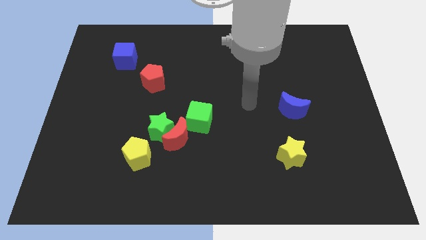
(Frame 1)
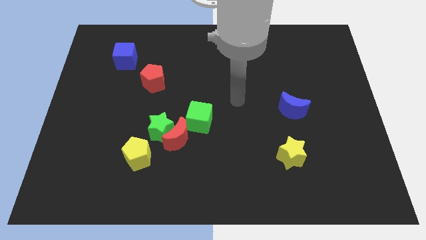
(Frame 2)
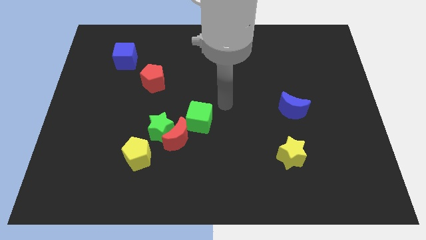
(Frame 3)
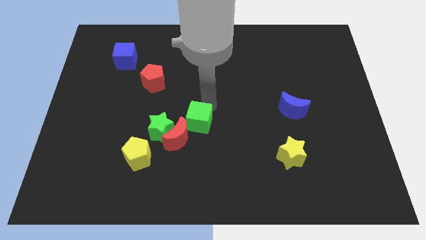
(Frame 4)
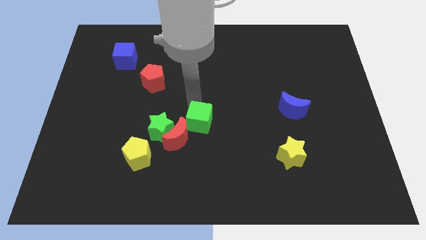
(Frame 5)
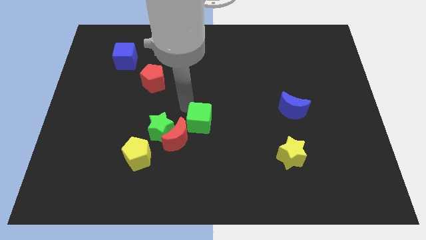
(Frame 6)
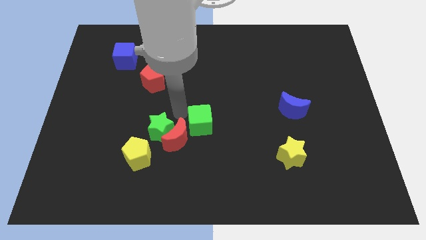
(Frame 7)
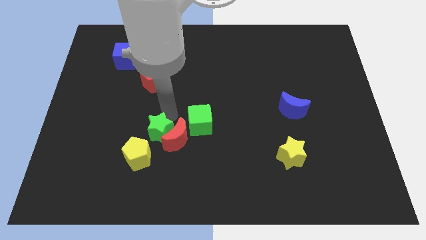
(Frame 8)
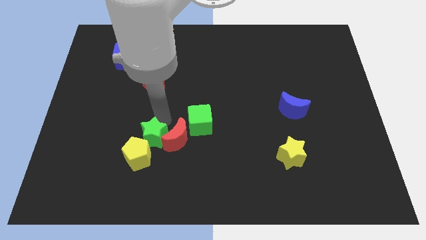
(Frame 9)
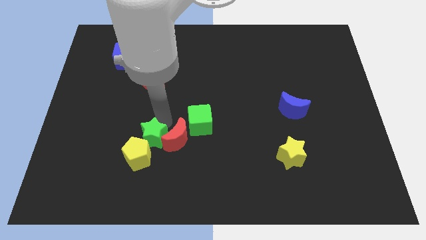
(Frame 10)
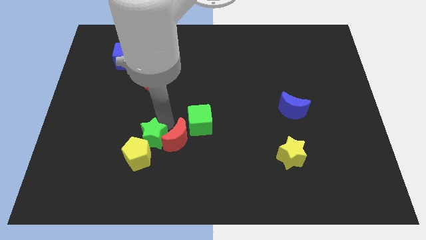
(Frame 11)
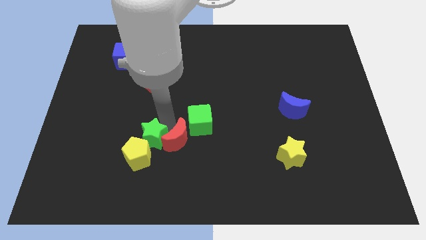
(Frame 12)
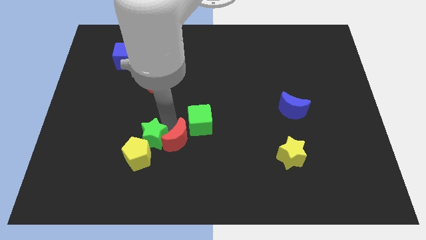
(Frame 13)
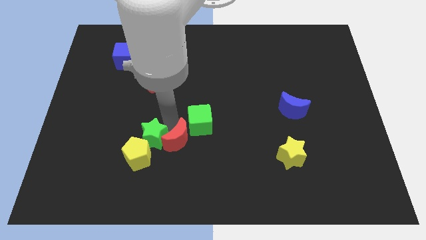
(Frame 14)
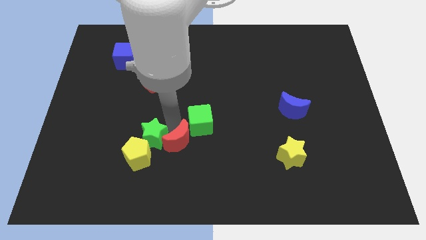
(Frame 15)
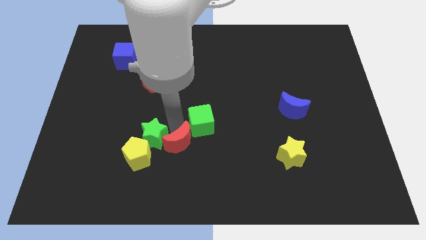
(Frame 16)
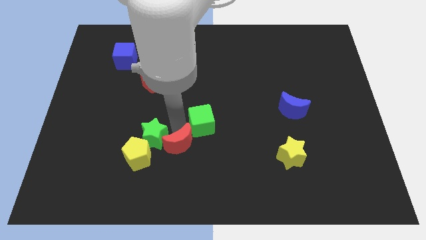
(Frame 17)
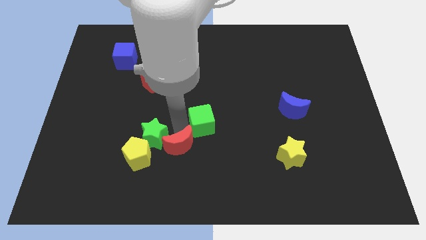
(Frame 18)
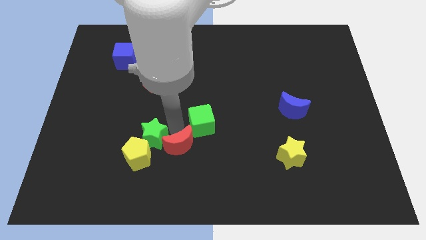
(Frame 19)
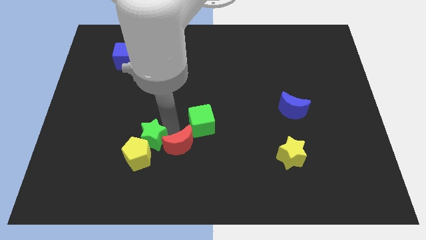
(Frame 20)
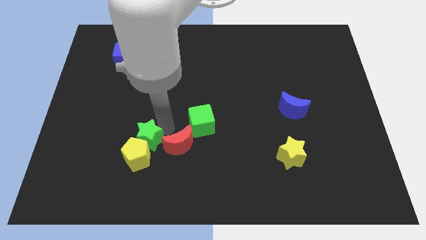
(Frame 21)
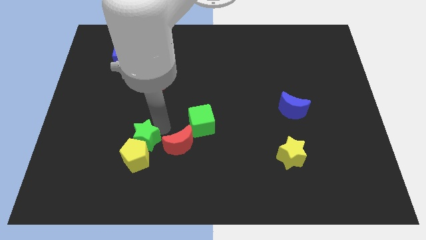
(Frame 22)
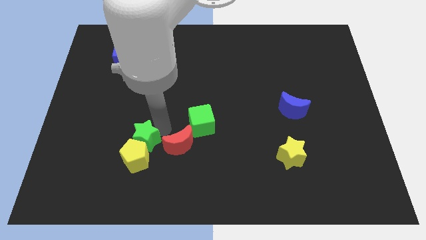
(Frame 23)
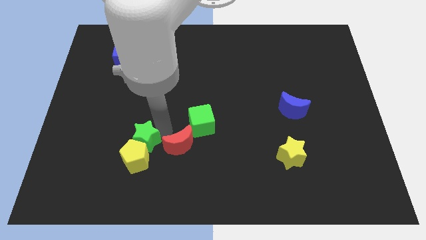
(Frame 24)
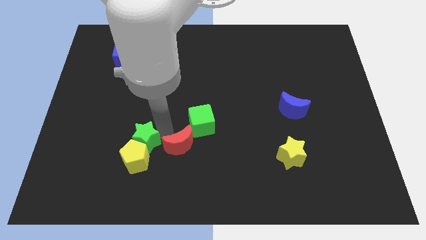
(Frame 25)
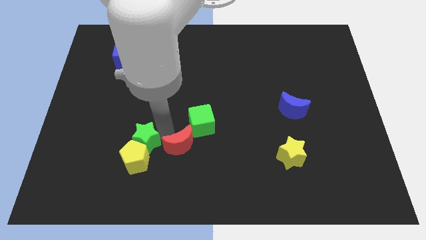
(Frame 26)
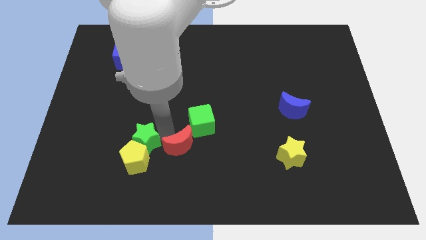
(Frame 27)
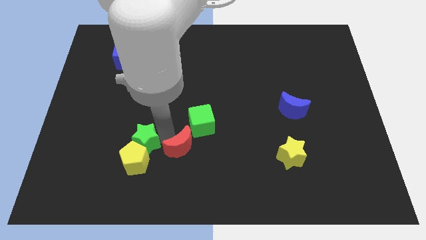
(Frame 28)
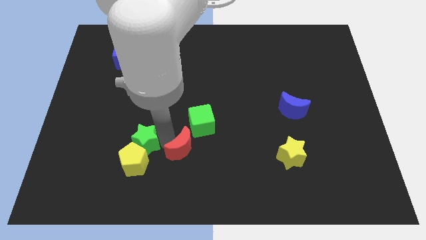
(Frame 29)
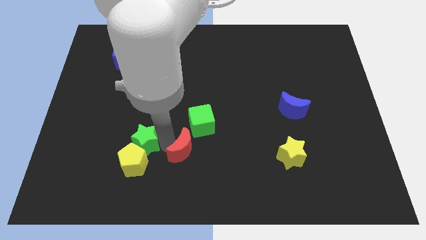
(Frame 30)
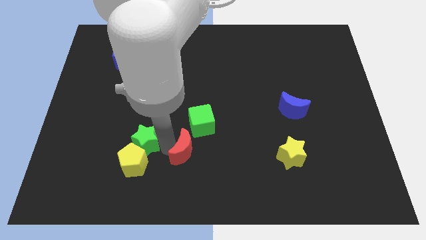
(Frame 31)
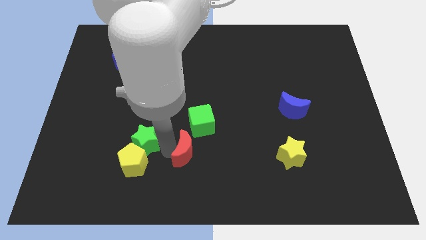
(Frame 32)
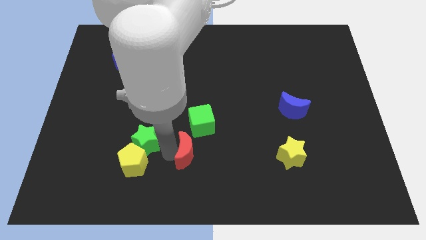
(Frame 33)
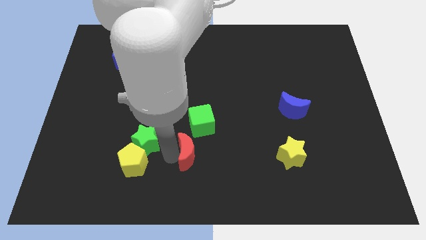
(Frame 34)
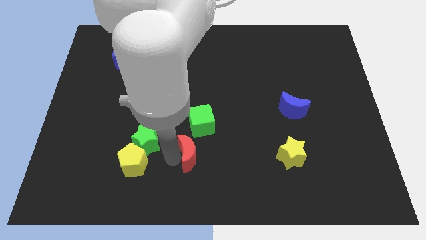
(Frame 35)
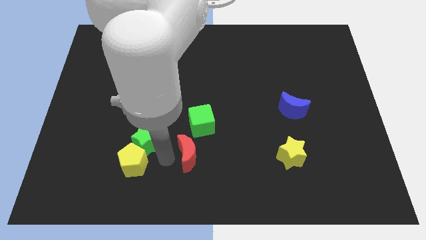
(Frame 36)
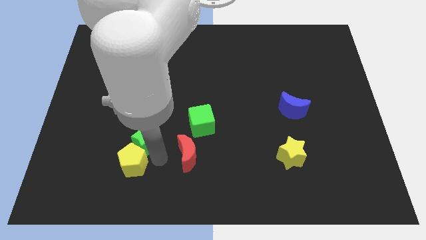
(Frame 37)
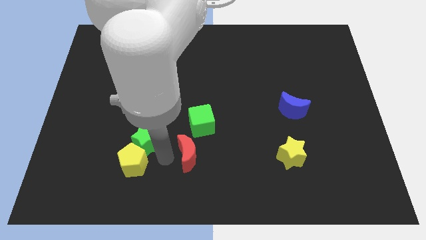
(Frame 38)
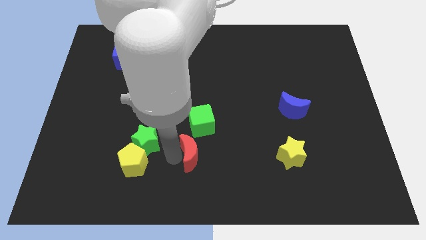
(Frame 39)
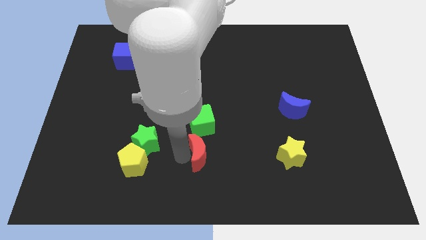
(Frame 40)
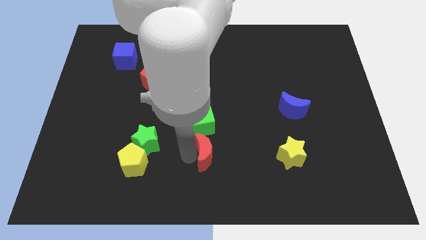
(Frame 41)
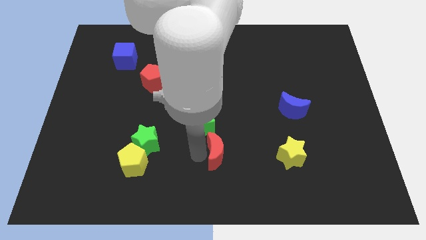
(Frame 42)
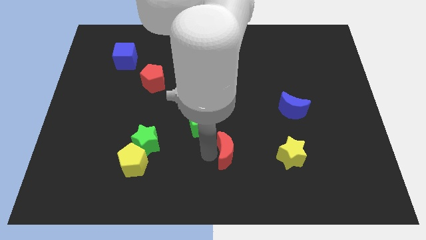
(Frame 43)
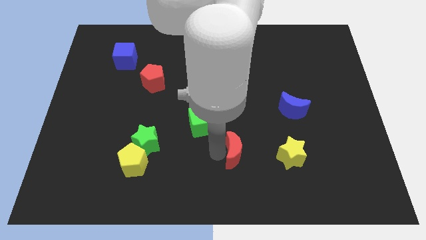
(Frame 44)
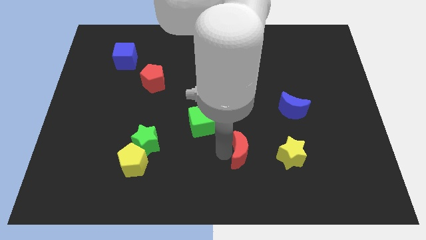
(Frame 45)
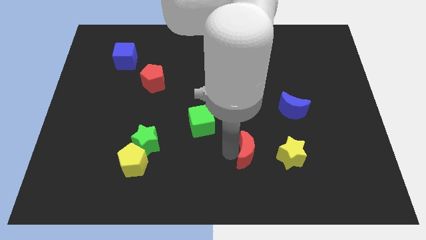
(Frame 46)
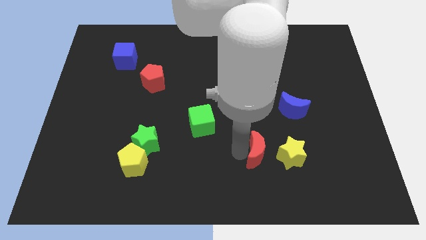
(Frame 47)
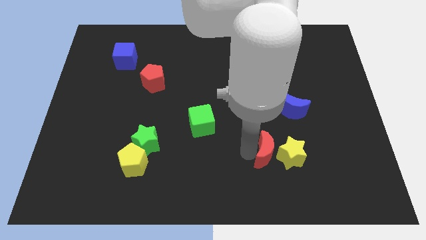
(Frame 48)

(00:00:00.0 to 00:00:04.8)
put the red moon close to the yellow star

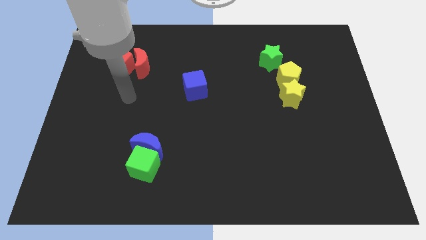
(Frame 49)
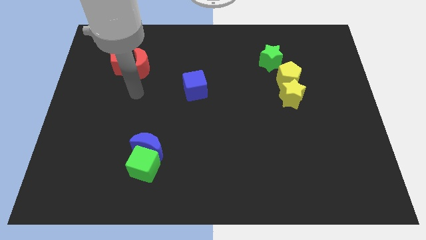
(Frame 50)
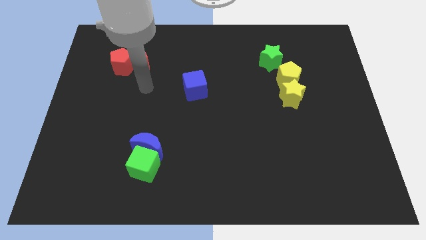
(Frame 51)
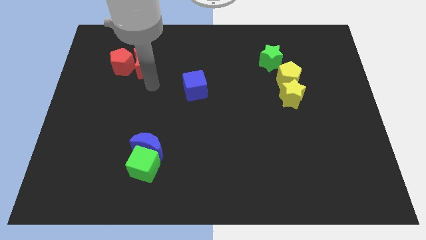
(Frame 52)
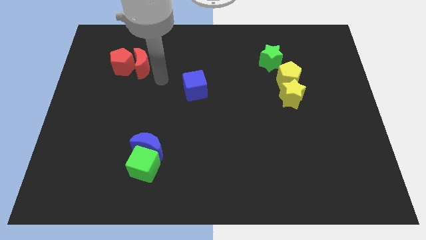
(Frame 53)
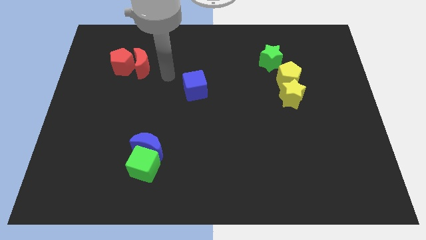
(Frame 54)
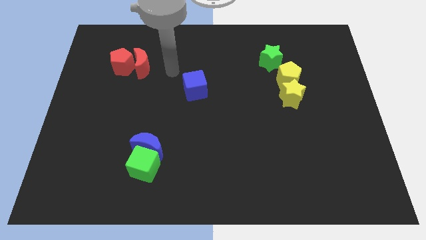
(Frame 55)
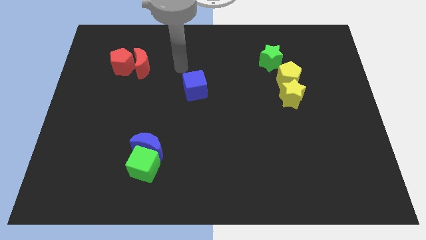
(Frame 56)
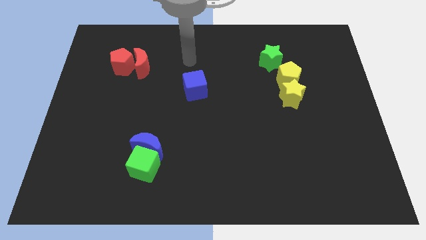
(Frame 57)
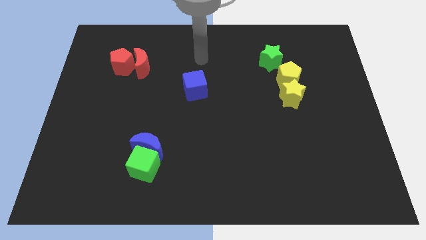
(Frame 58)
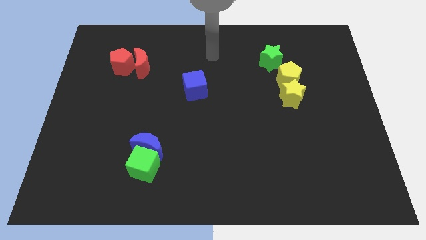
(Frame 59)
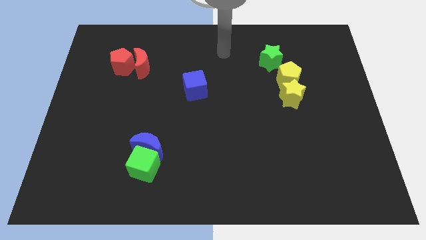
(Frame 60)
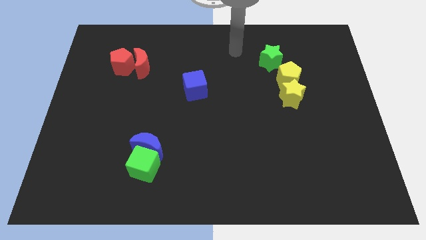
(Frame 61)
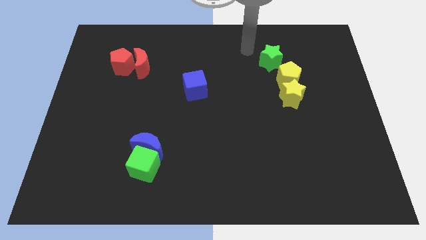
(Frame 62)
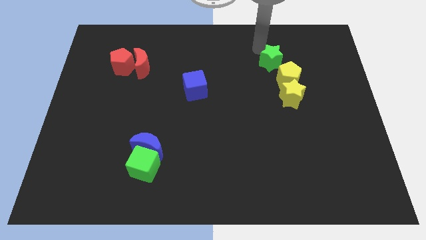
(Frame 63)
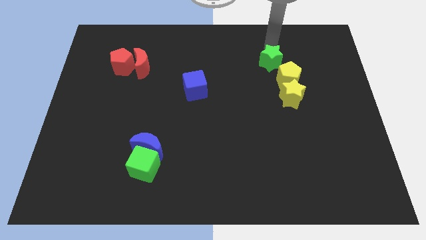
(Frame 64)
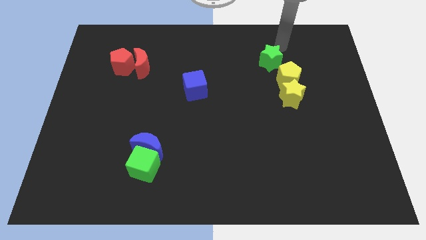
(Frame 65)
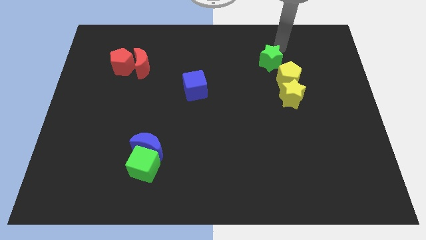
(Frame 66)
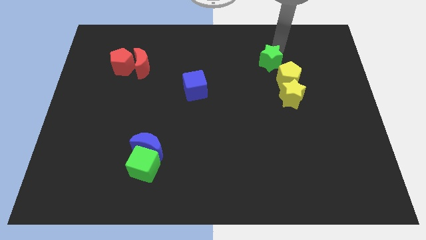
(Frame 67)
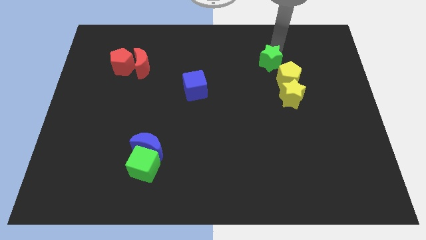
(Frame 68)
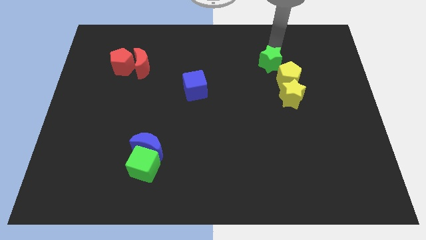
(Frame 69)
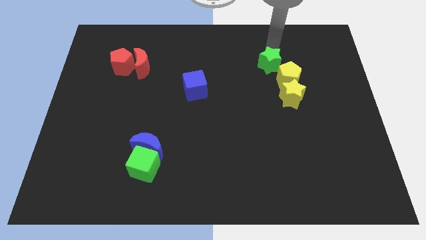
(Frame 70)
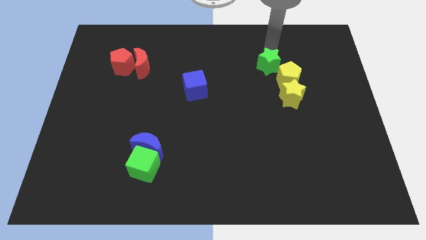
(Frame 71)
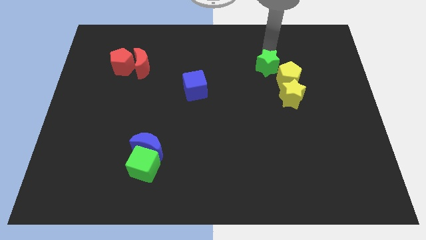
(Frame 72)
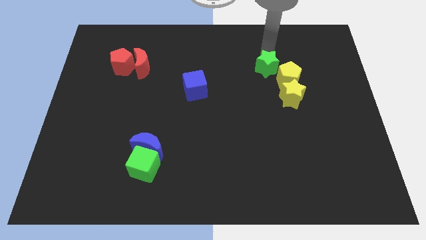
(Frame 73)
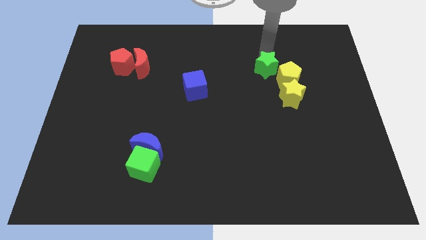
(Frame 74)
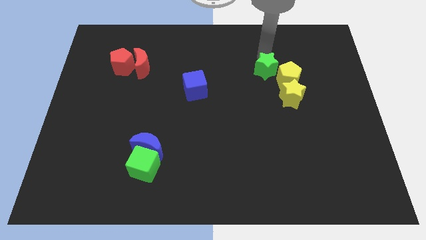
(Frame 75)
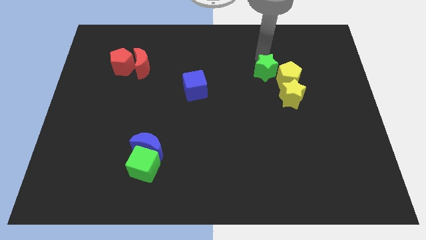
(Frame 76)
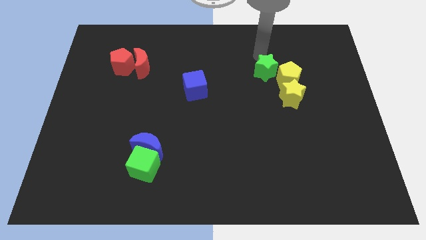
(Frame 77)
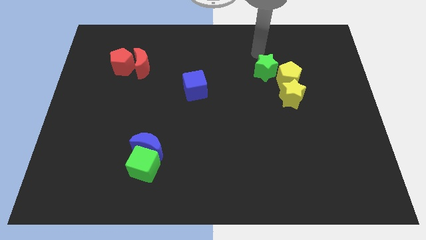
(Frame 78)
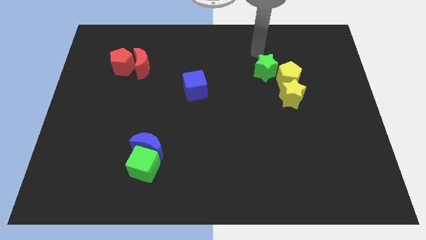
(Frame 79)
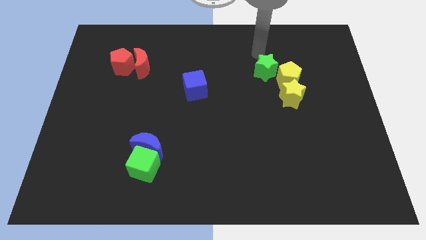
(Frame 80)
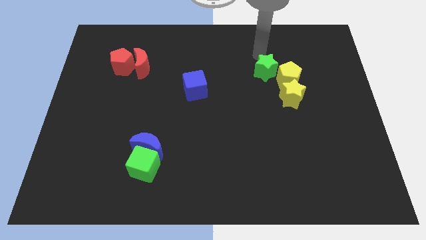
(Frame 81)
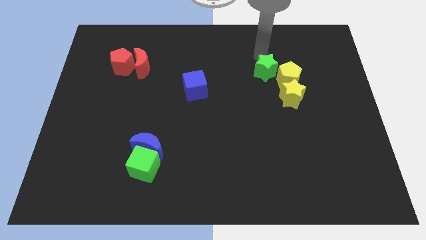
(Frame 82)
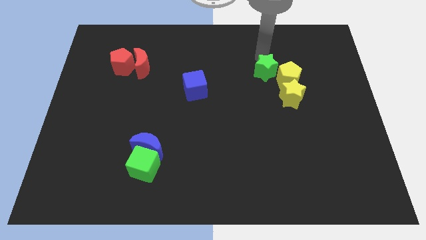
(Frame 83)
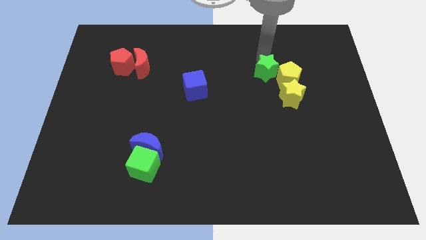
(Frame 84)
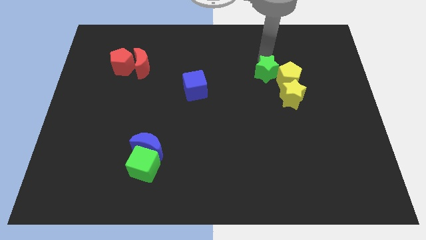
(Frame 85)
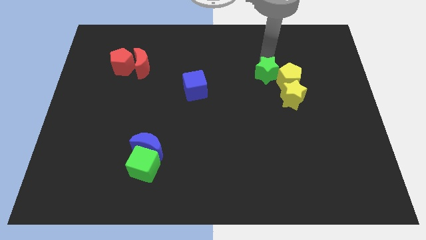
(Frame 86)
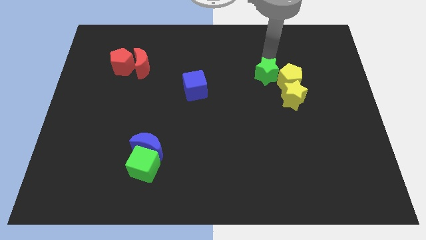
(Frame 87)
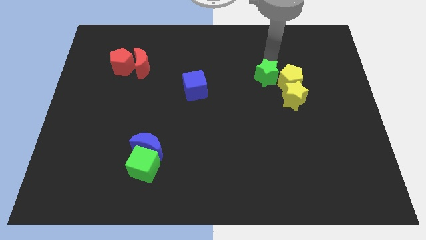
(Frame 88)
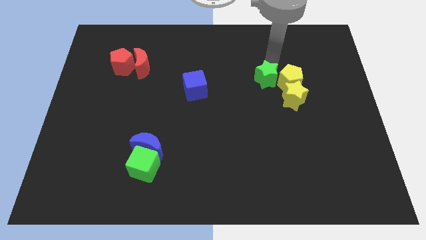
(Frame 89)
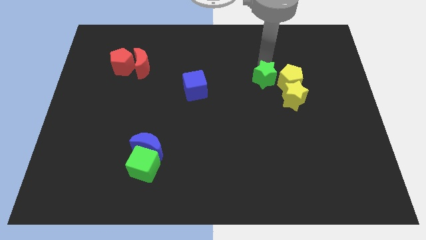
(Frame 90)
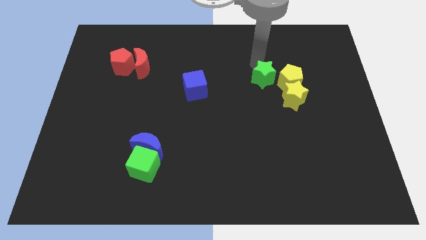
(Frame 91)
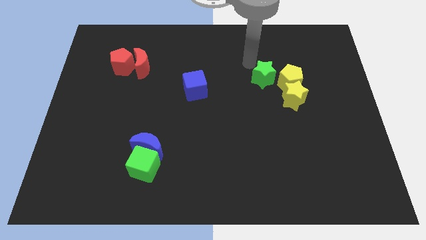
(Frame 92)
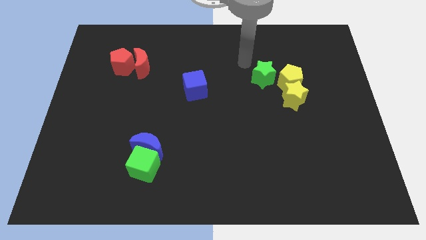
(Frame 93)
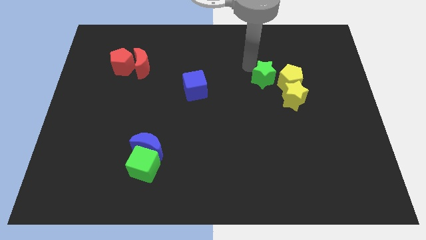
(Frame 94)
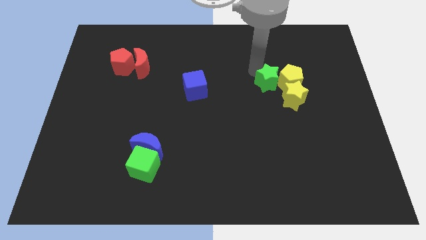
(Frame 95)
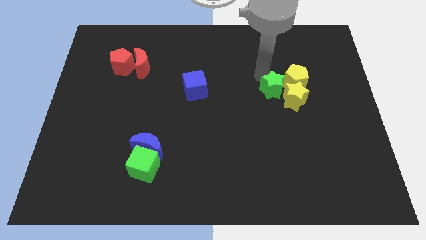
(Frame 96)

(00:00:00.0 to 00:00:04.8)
push the green star towards the yellow star
